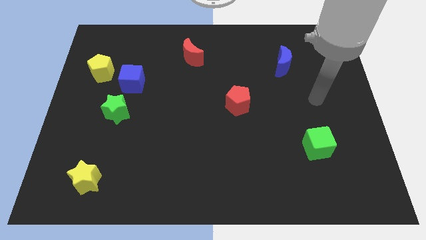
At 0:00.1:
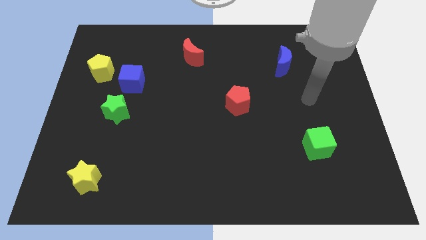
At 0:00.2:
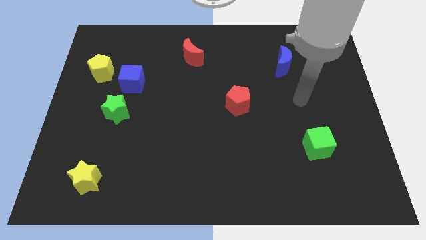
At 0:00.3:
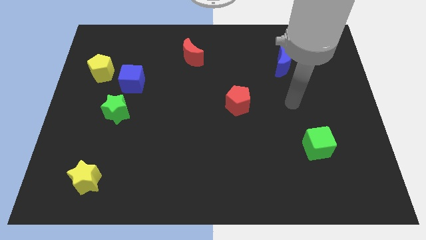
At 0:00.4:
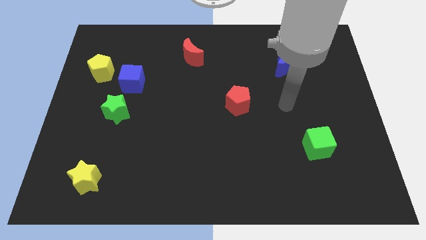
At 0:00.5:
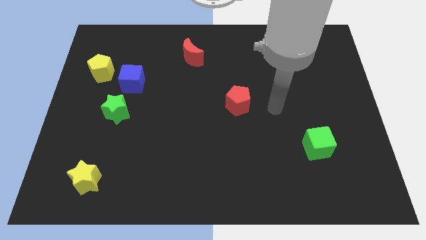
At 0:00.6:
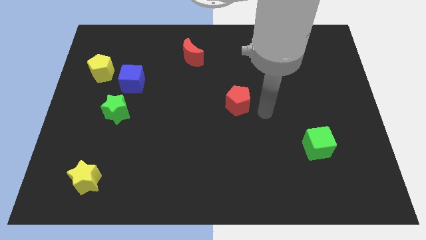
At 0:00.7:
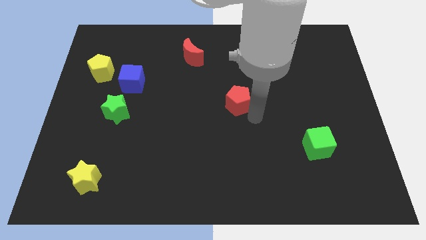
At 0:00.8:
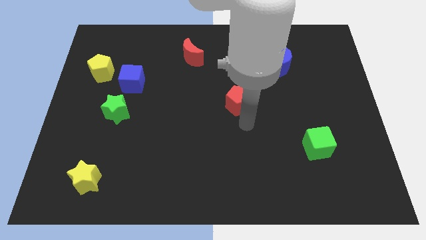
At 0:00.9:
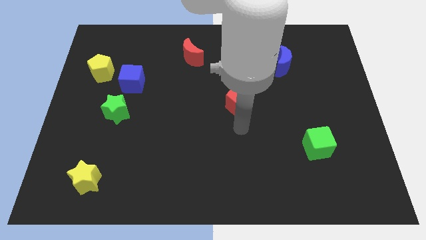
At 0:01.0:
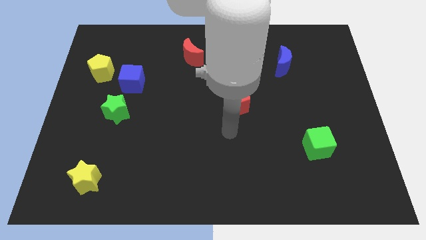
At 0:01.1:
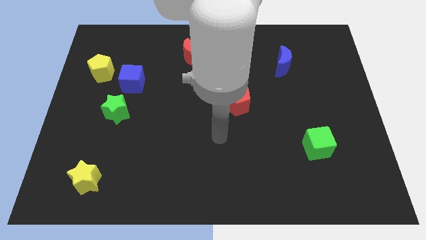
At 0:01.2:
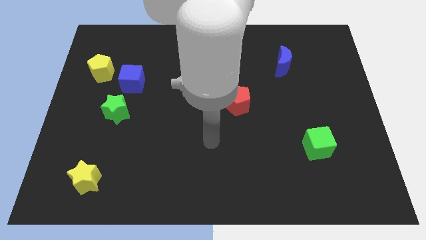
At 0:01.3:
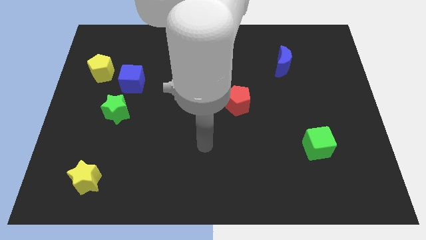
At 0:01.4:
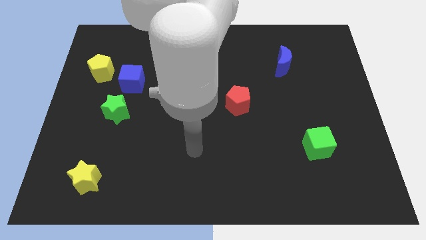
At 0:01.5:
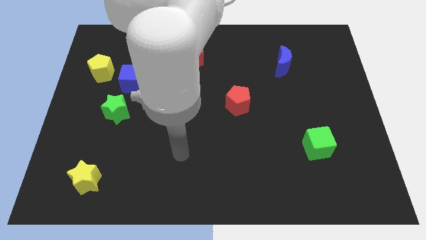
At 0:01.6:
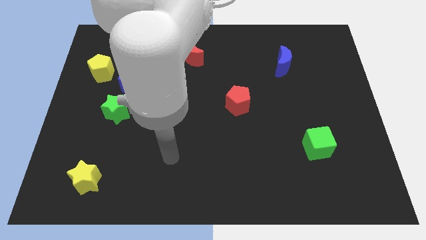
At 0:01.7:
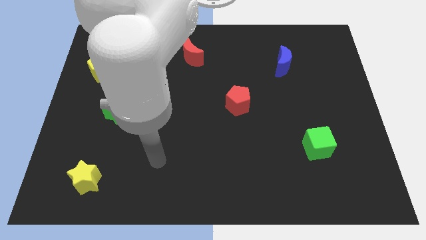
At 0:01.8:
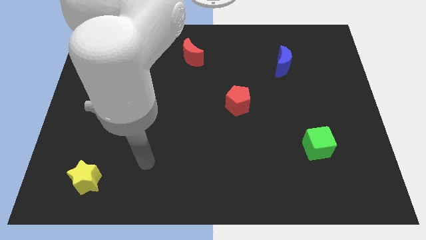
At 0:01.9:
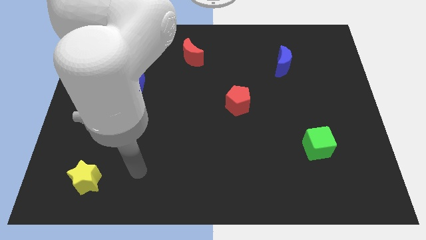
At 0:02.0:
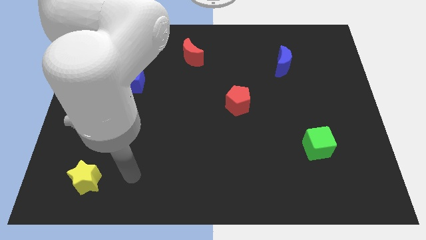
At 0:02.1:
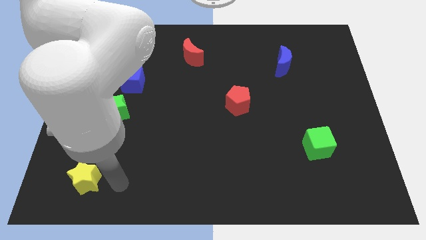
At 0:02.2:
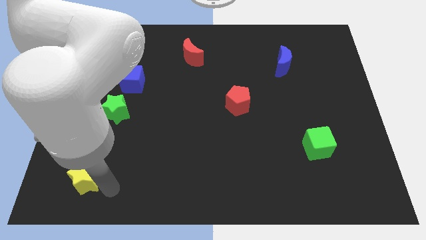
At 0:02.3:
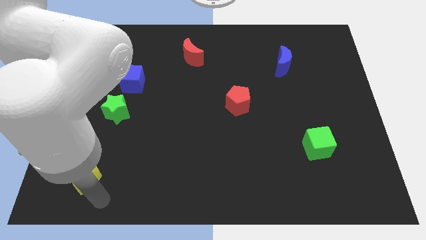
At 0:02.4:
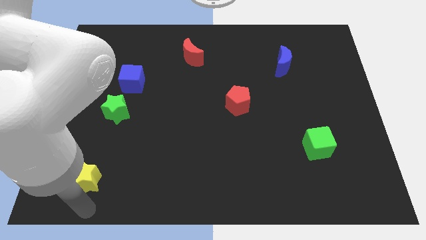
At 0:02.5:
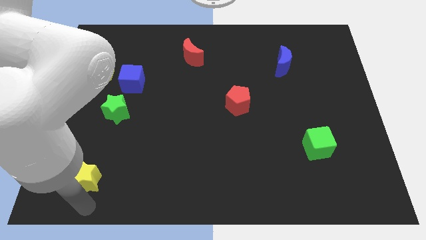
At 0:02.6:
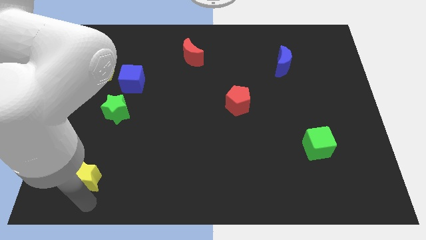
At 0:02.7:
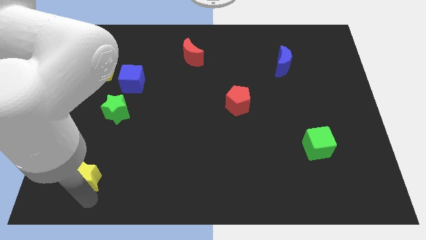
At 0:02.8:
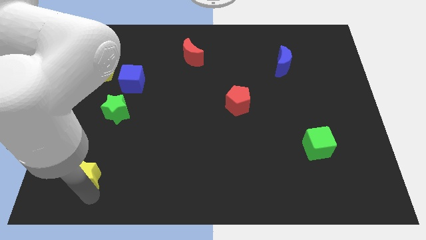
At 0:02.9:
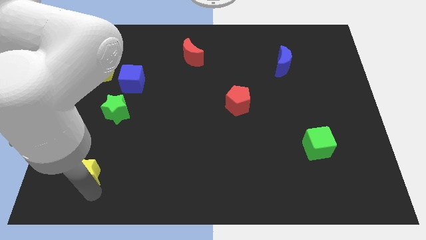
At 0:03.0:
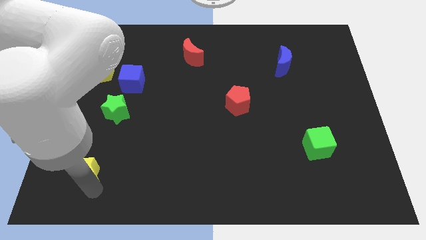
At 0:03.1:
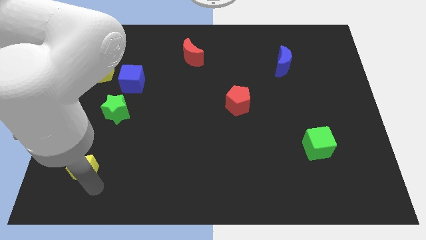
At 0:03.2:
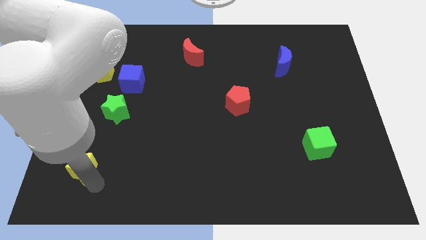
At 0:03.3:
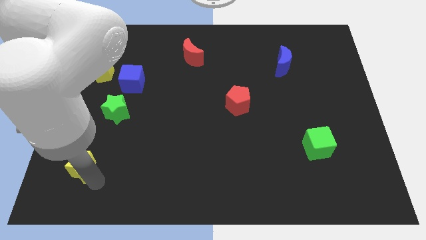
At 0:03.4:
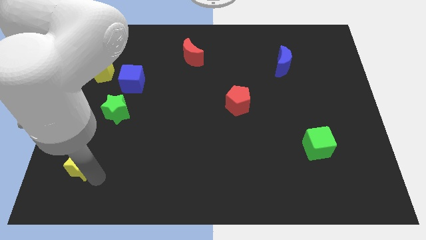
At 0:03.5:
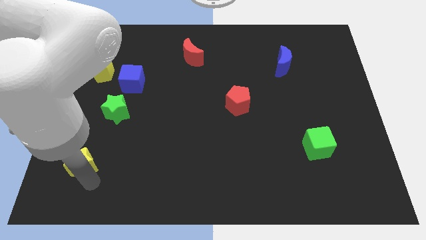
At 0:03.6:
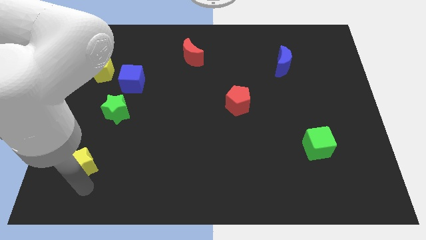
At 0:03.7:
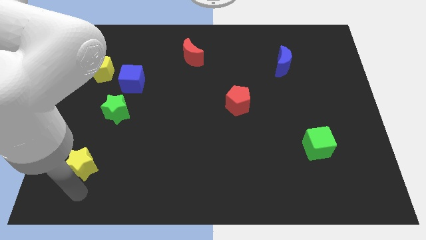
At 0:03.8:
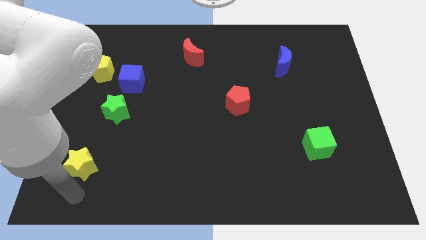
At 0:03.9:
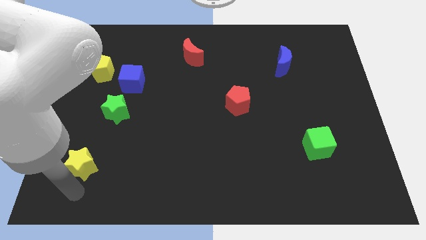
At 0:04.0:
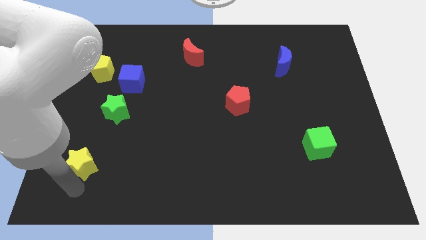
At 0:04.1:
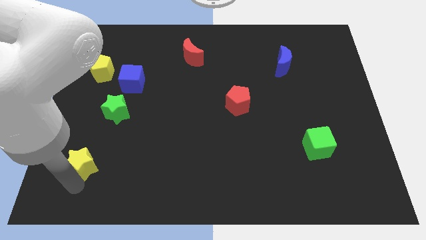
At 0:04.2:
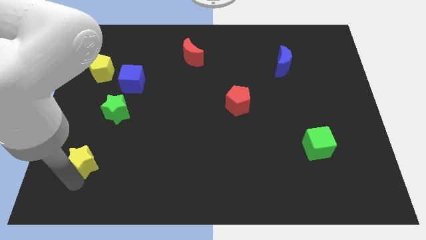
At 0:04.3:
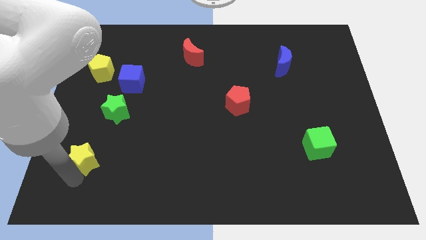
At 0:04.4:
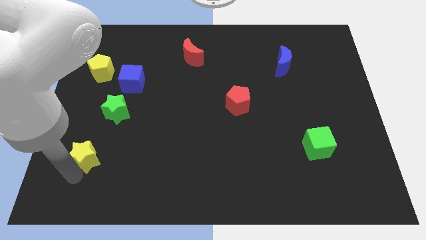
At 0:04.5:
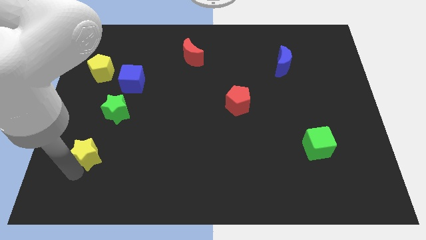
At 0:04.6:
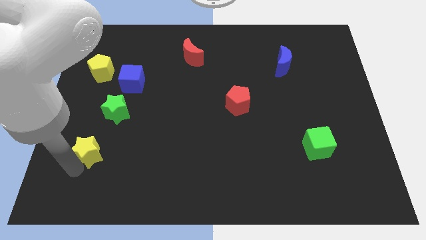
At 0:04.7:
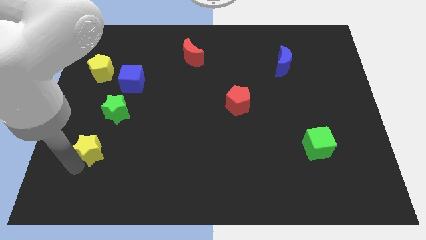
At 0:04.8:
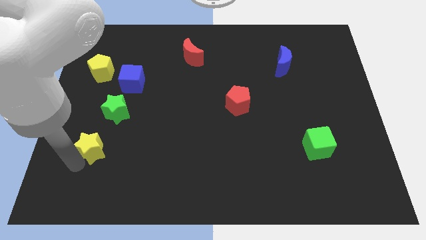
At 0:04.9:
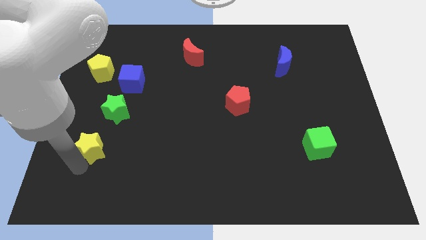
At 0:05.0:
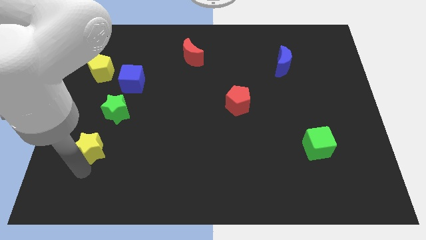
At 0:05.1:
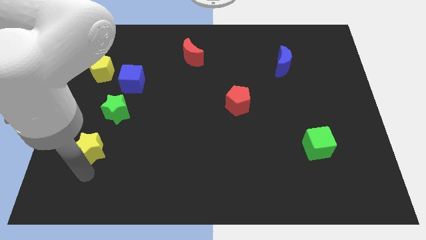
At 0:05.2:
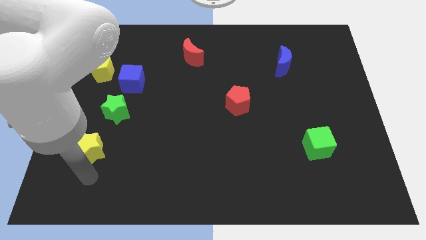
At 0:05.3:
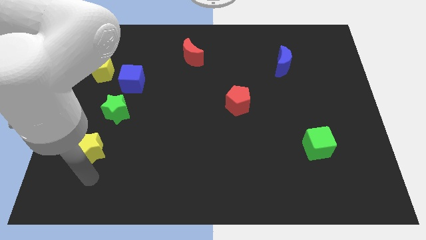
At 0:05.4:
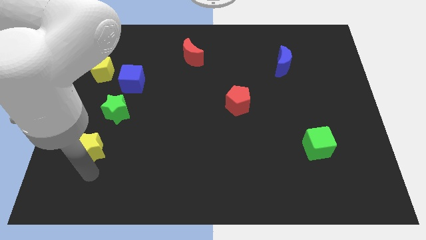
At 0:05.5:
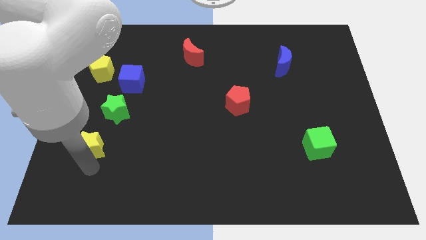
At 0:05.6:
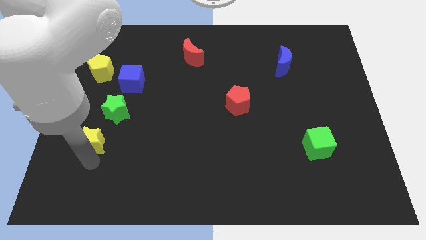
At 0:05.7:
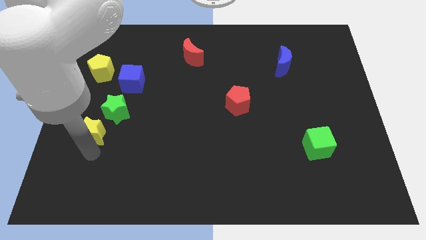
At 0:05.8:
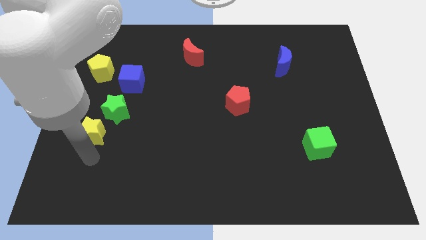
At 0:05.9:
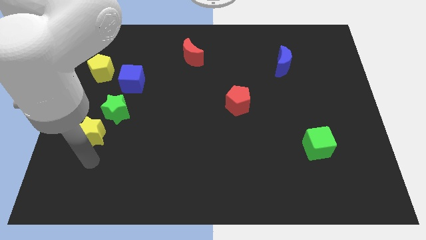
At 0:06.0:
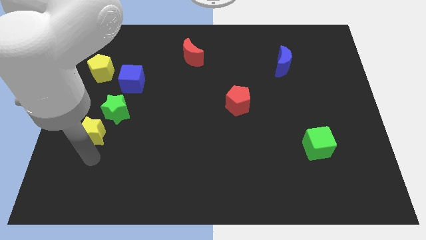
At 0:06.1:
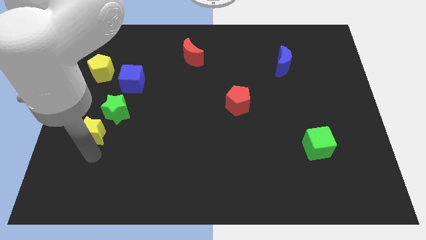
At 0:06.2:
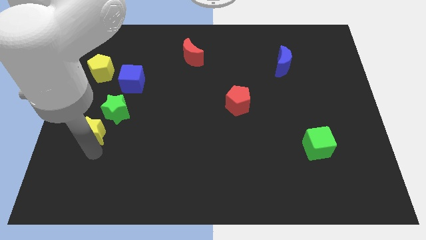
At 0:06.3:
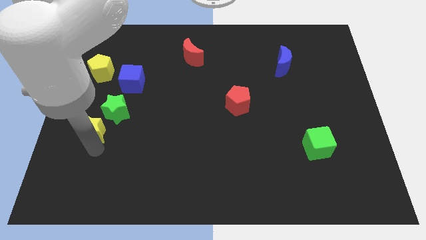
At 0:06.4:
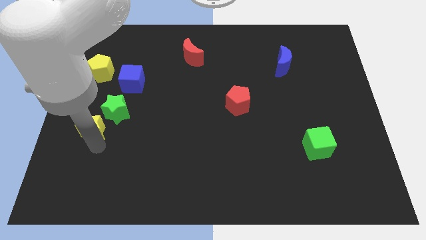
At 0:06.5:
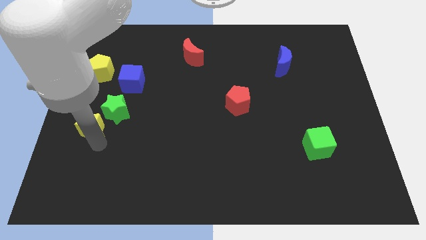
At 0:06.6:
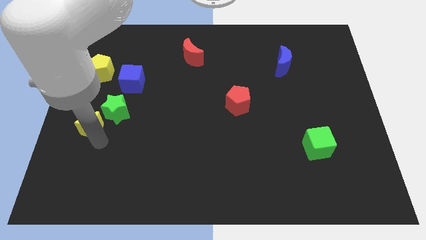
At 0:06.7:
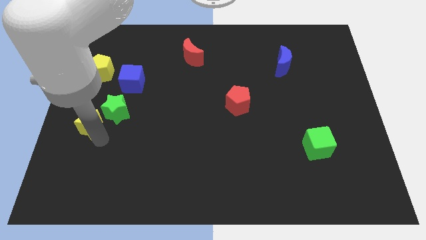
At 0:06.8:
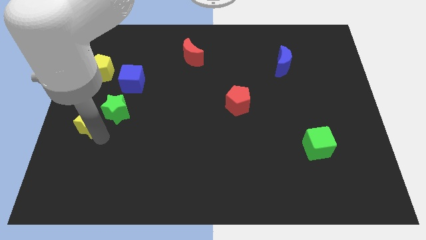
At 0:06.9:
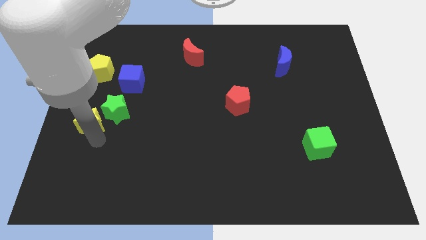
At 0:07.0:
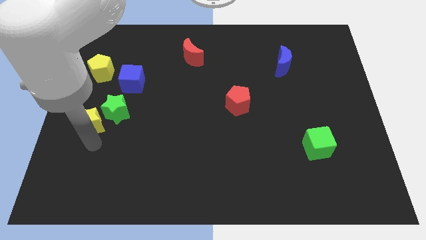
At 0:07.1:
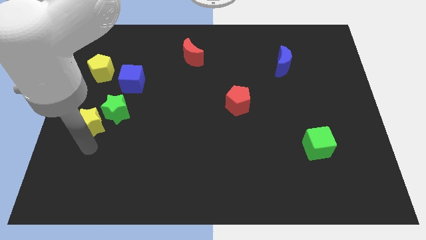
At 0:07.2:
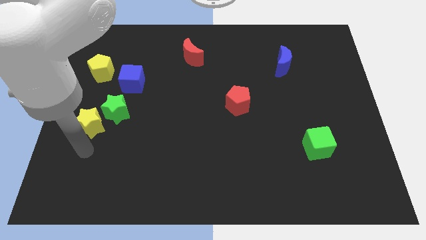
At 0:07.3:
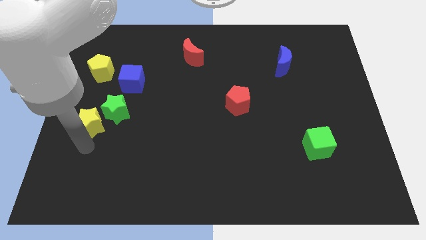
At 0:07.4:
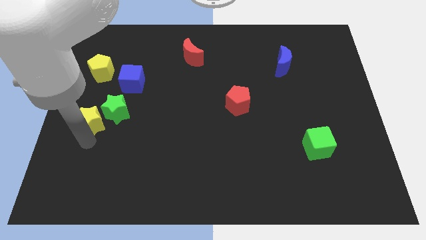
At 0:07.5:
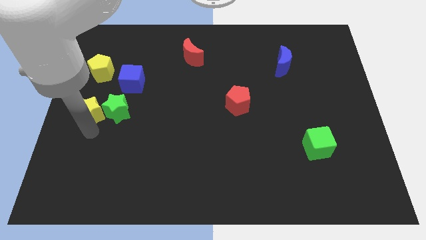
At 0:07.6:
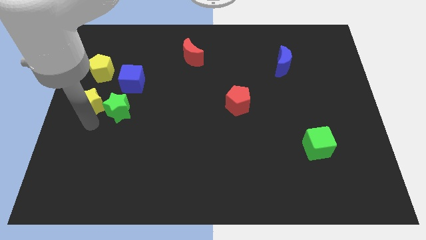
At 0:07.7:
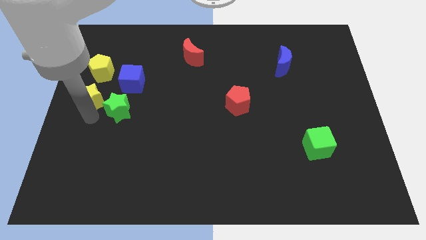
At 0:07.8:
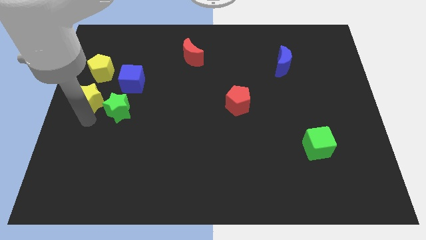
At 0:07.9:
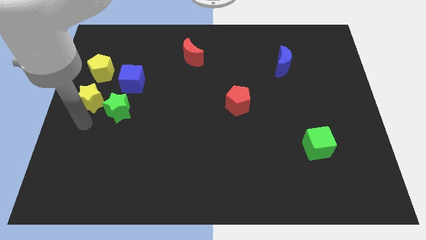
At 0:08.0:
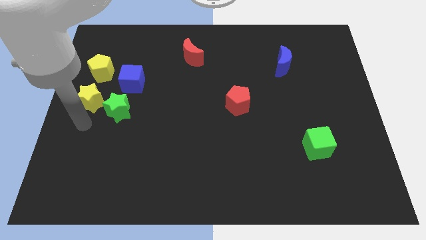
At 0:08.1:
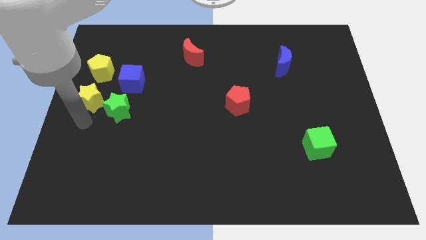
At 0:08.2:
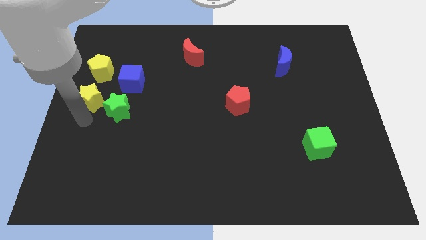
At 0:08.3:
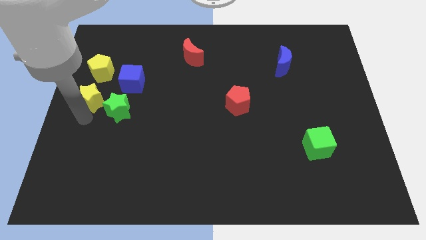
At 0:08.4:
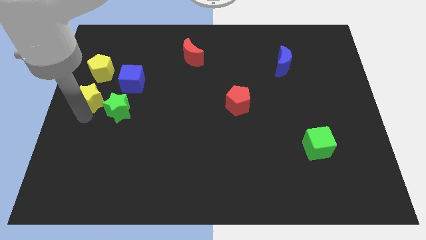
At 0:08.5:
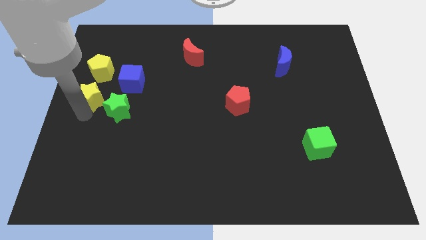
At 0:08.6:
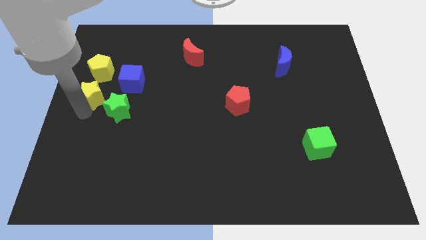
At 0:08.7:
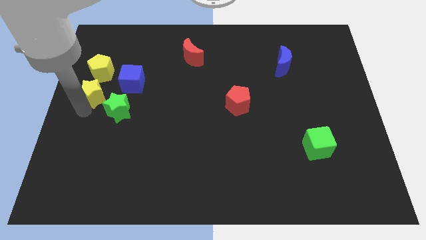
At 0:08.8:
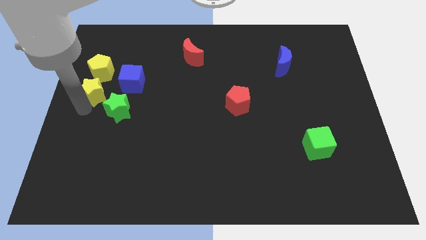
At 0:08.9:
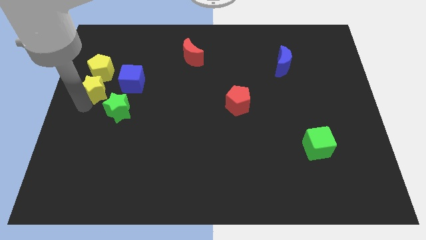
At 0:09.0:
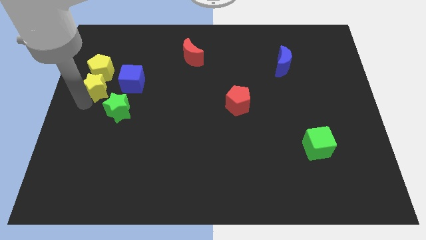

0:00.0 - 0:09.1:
put the yellow star towards the yellow pentagon
